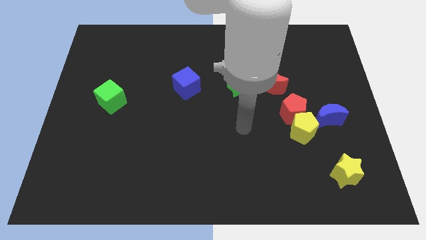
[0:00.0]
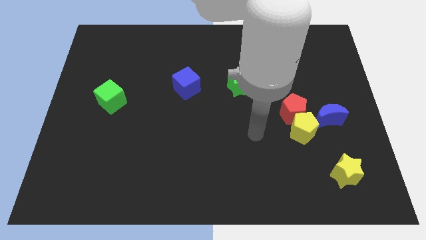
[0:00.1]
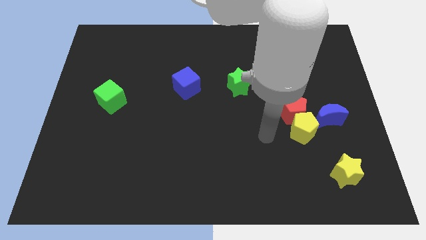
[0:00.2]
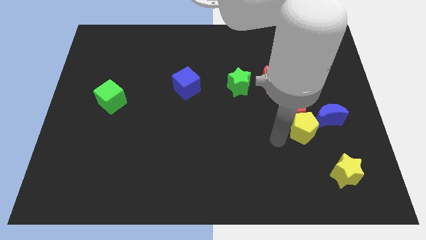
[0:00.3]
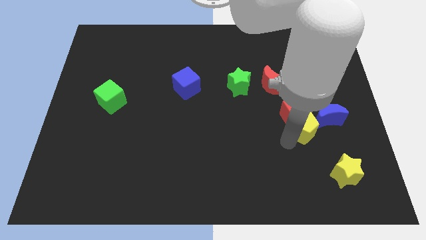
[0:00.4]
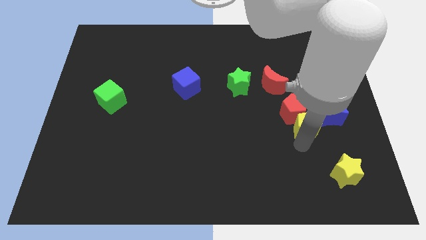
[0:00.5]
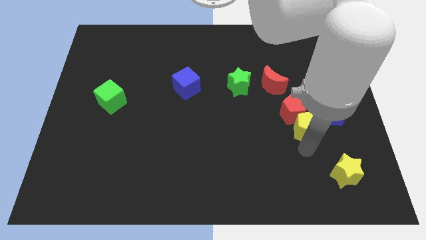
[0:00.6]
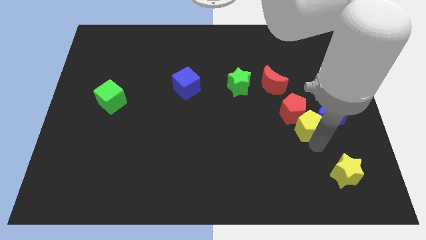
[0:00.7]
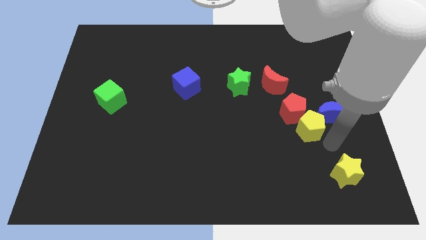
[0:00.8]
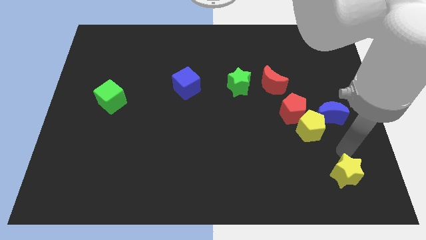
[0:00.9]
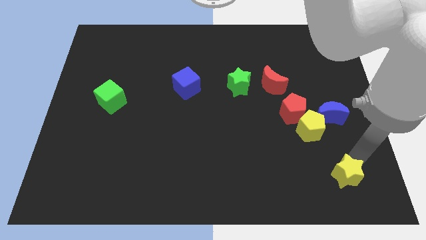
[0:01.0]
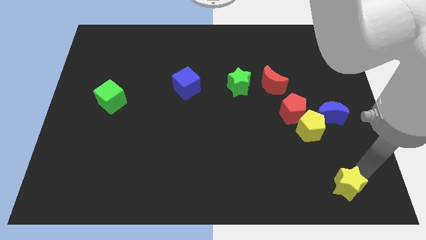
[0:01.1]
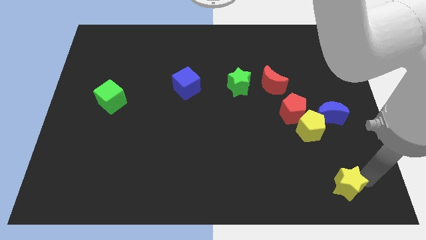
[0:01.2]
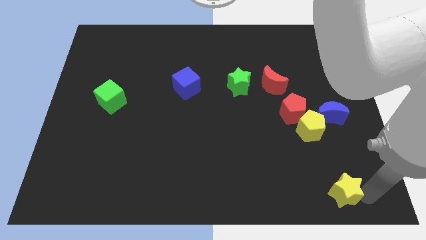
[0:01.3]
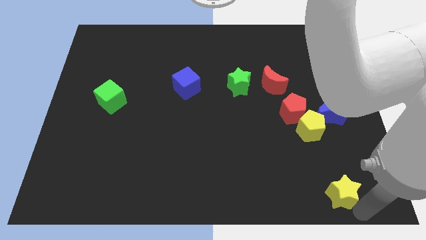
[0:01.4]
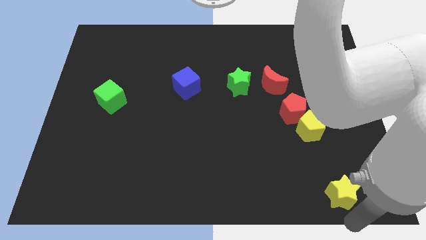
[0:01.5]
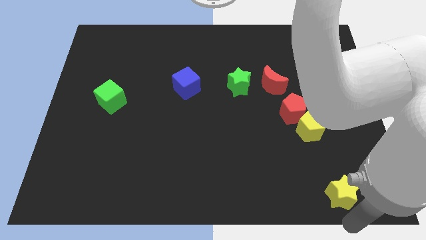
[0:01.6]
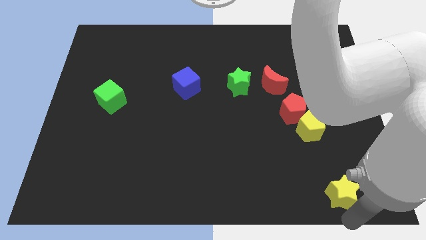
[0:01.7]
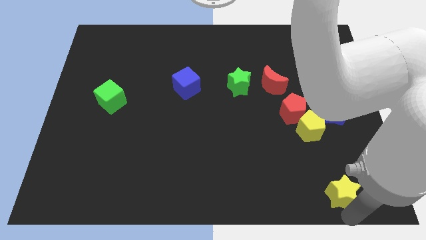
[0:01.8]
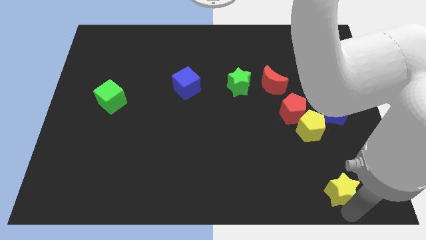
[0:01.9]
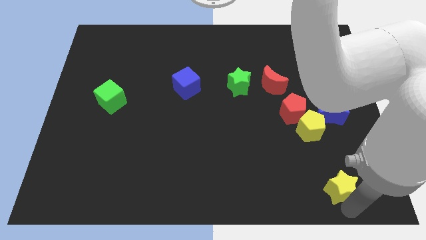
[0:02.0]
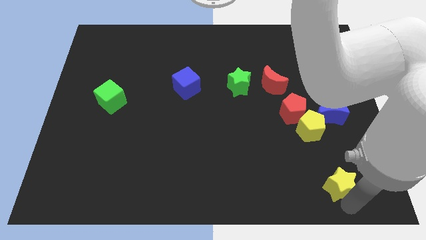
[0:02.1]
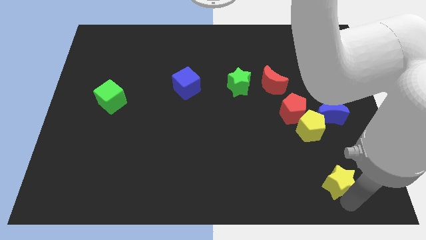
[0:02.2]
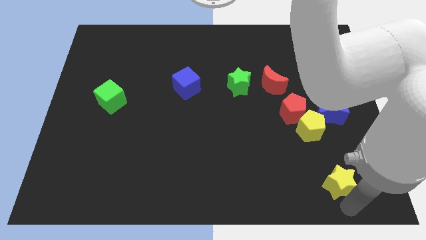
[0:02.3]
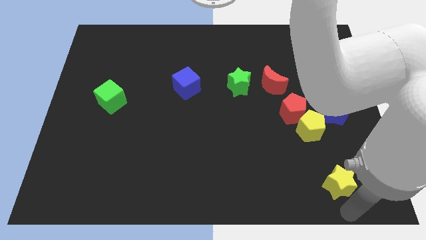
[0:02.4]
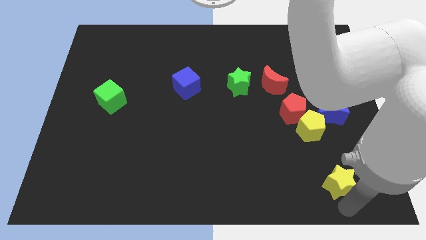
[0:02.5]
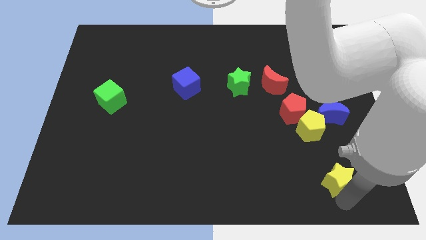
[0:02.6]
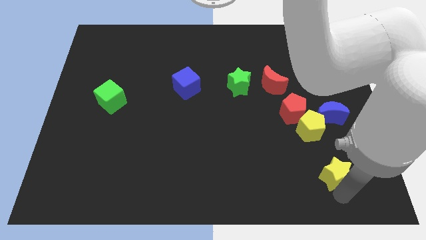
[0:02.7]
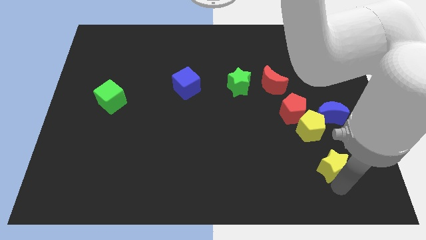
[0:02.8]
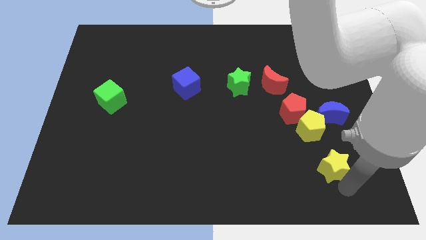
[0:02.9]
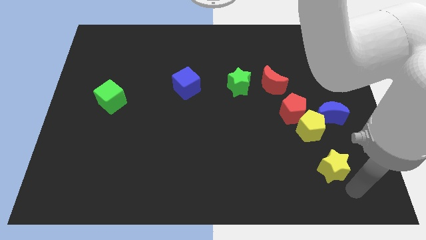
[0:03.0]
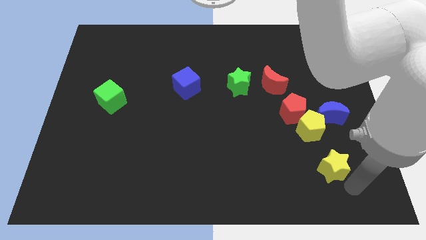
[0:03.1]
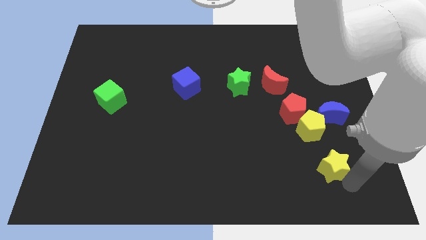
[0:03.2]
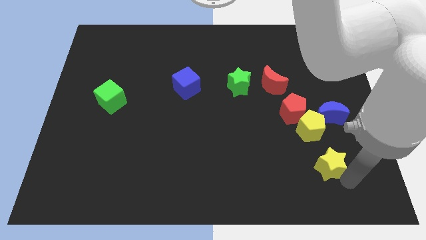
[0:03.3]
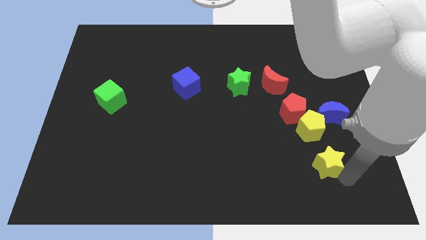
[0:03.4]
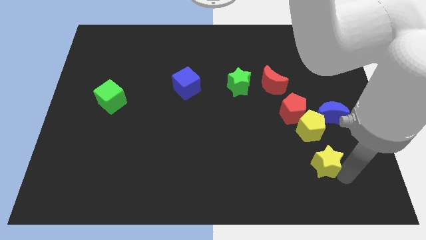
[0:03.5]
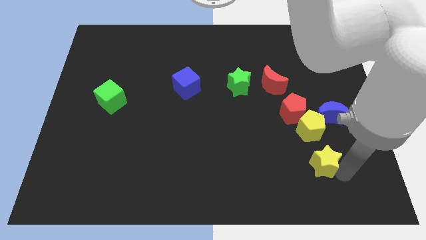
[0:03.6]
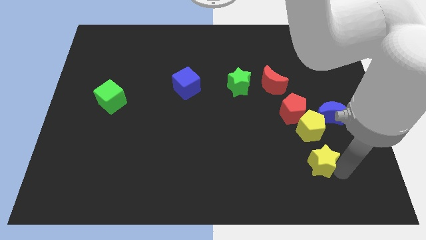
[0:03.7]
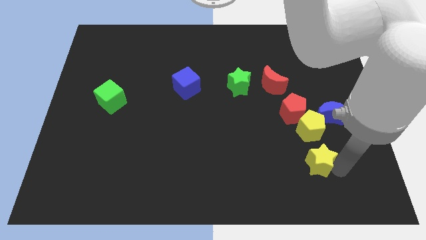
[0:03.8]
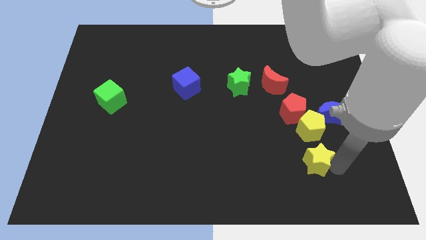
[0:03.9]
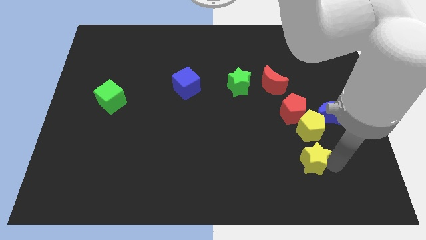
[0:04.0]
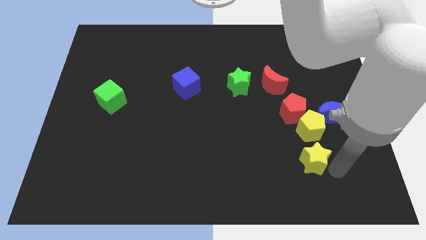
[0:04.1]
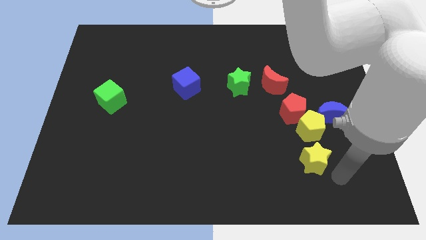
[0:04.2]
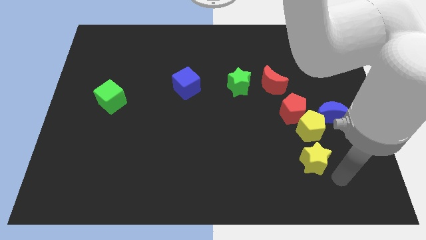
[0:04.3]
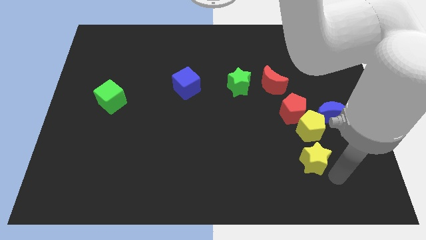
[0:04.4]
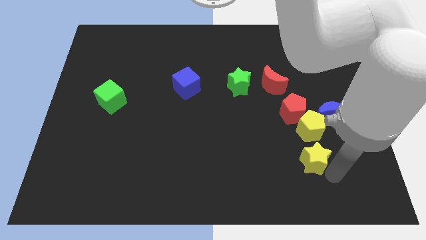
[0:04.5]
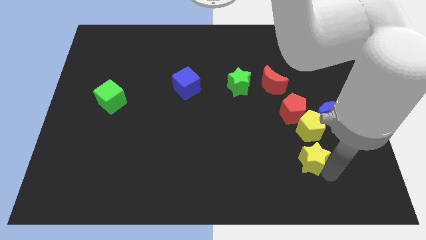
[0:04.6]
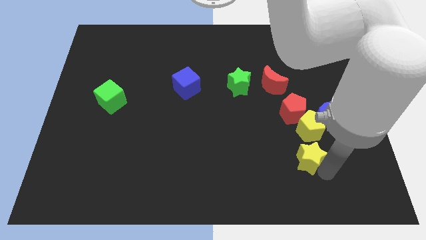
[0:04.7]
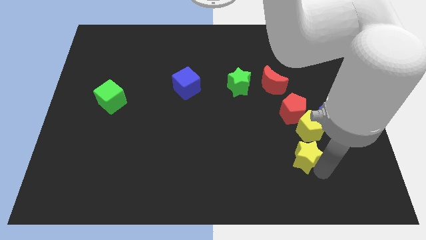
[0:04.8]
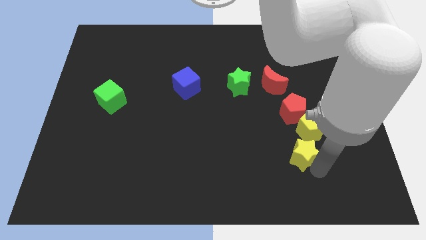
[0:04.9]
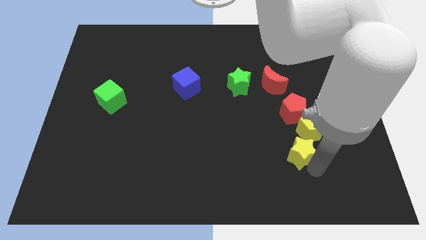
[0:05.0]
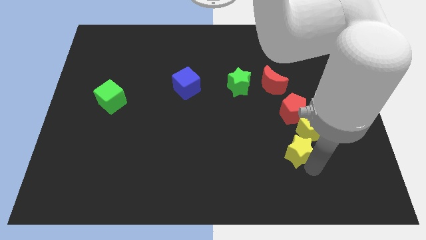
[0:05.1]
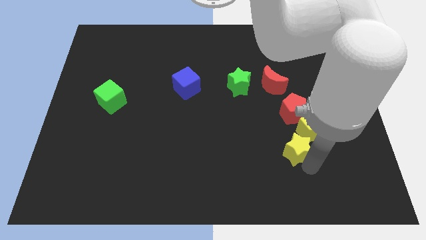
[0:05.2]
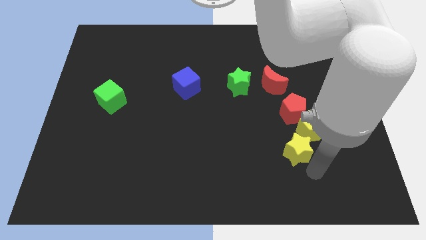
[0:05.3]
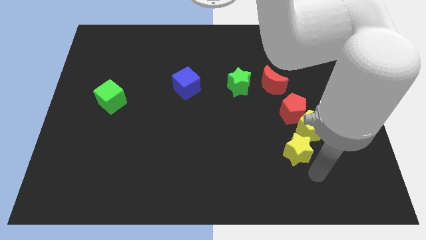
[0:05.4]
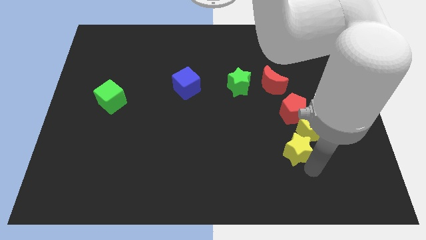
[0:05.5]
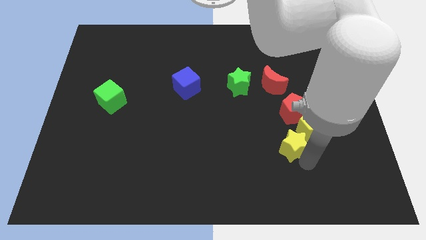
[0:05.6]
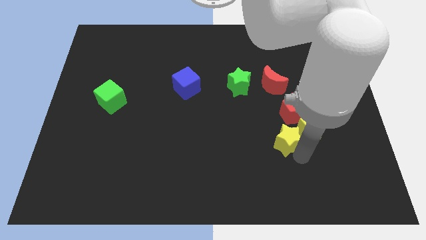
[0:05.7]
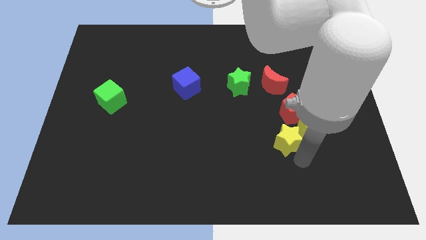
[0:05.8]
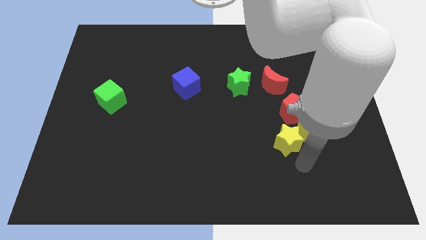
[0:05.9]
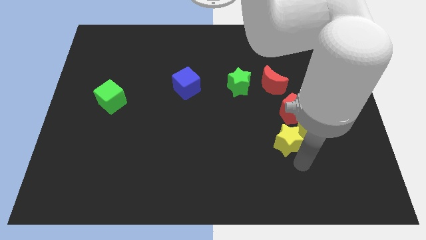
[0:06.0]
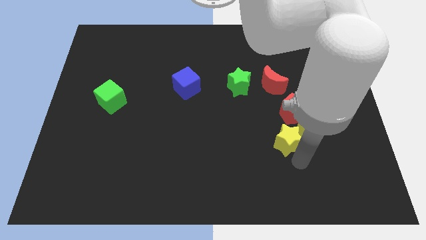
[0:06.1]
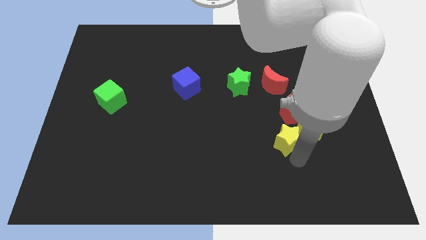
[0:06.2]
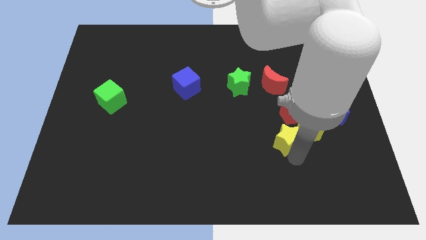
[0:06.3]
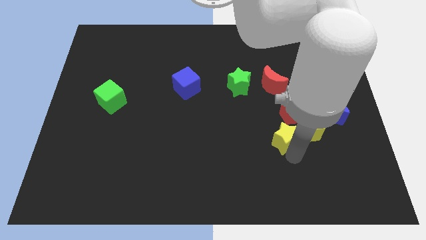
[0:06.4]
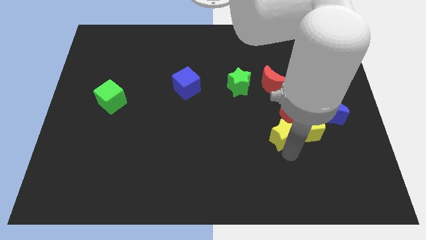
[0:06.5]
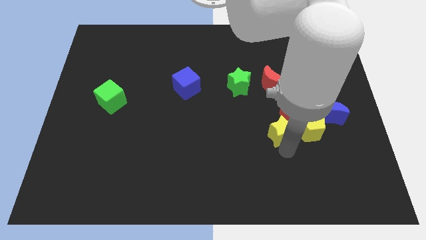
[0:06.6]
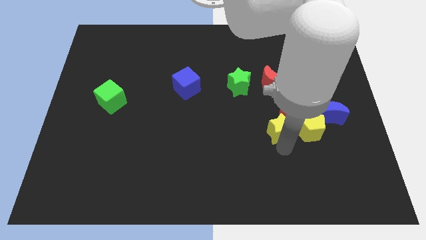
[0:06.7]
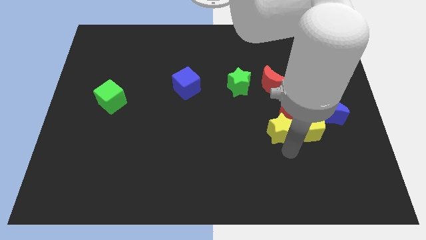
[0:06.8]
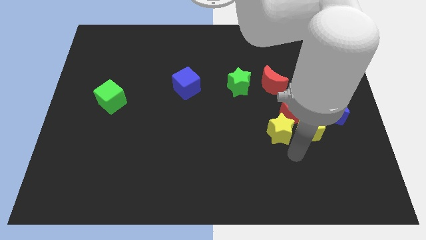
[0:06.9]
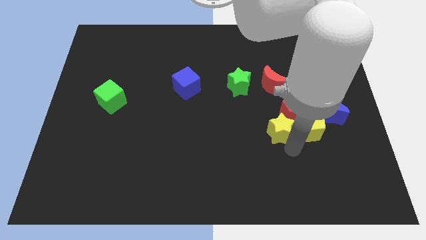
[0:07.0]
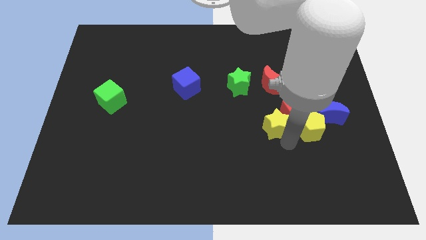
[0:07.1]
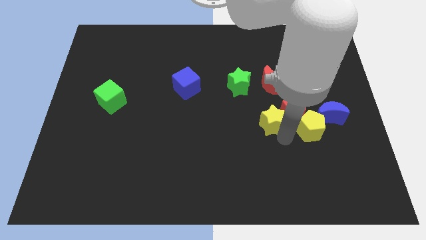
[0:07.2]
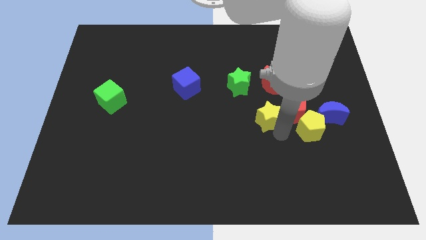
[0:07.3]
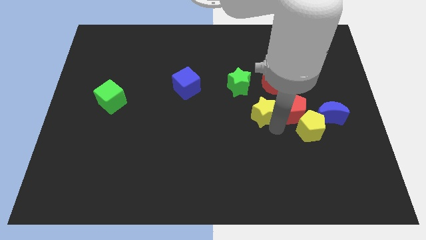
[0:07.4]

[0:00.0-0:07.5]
push the yellow star to the bottom left of the red moon
